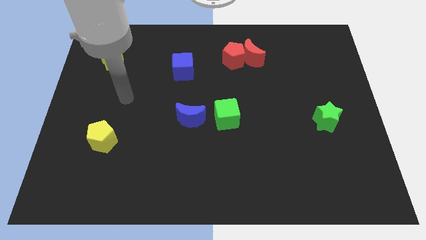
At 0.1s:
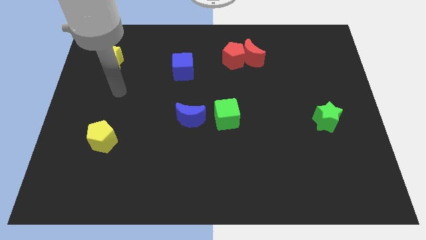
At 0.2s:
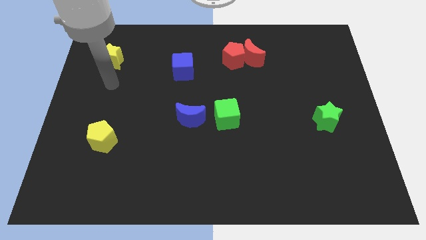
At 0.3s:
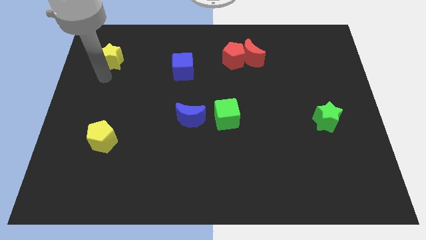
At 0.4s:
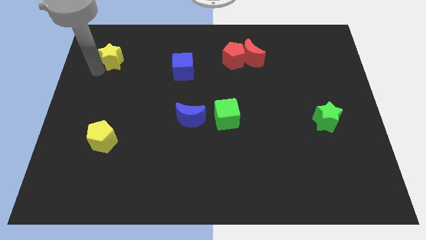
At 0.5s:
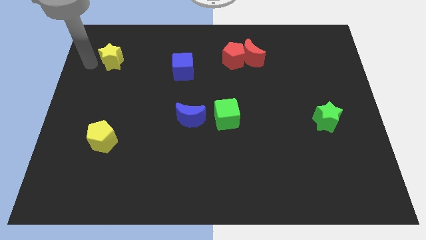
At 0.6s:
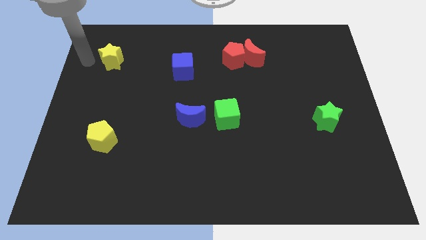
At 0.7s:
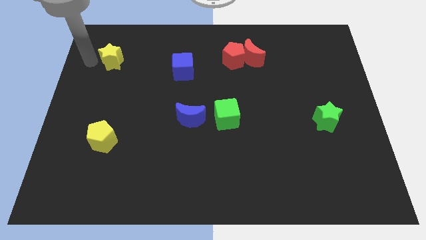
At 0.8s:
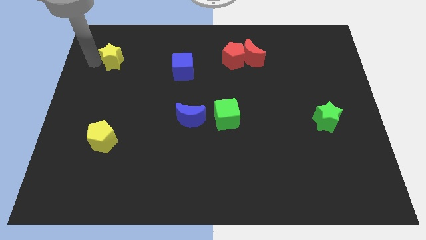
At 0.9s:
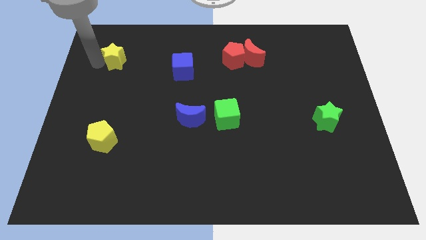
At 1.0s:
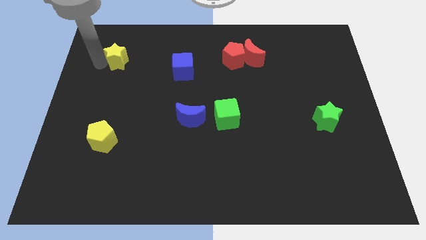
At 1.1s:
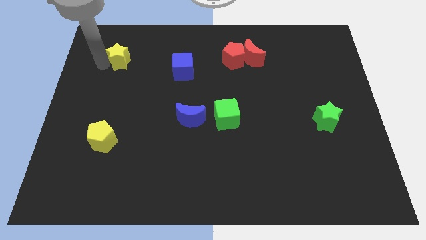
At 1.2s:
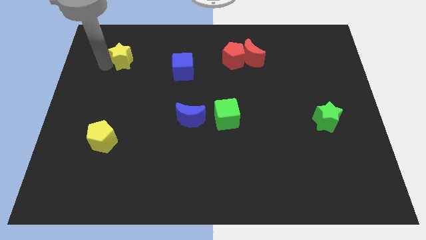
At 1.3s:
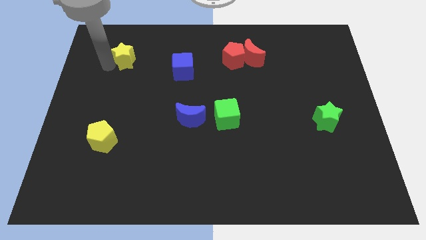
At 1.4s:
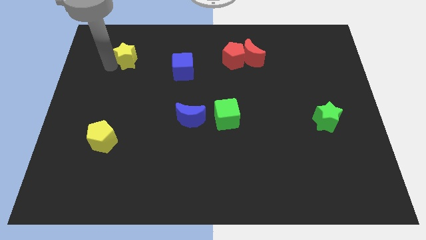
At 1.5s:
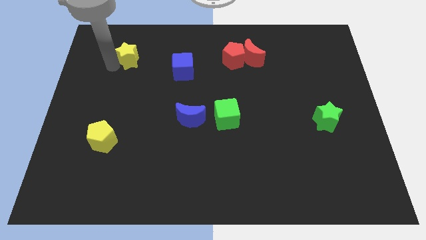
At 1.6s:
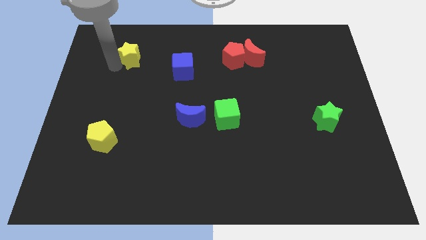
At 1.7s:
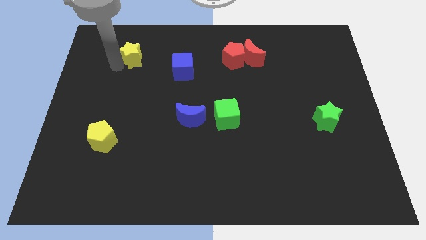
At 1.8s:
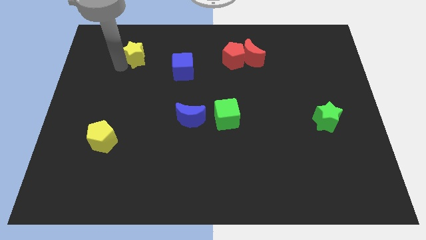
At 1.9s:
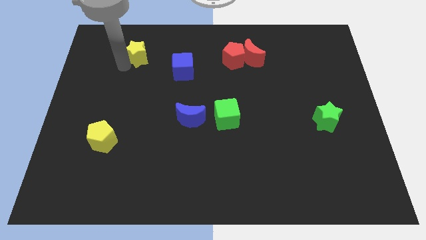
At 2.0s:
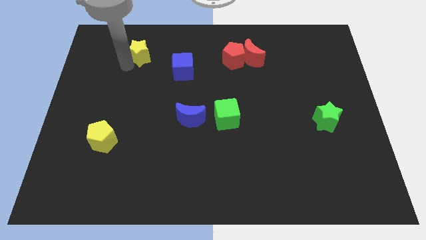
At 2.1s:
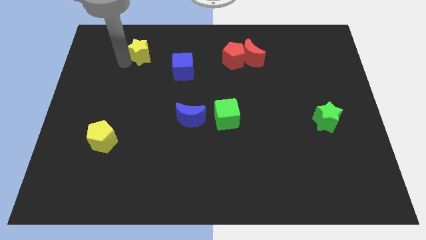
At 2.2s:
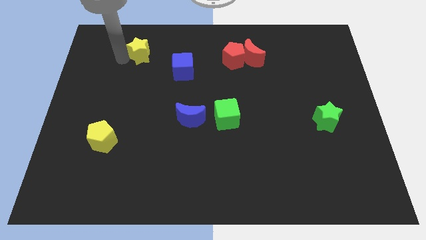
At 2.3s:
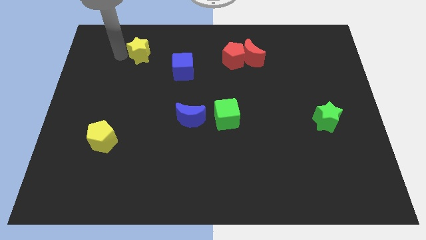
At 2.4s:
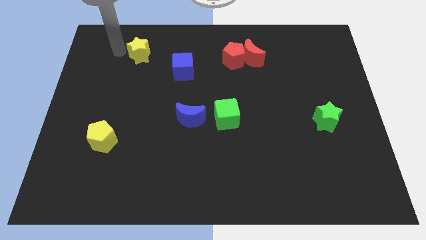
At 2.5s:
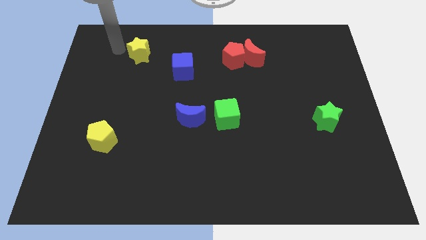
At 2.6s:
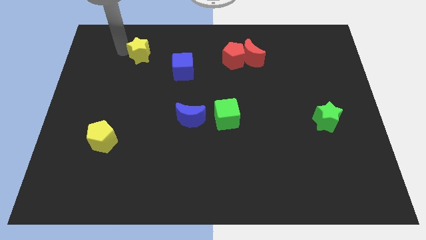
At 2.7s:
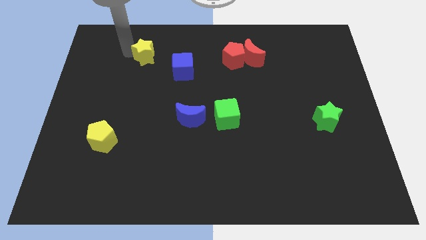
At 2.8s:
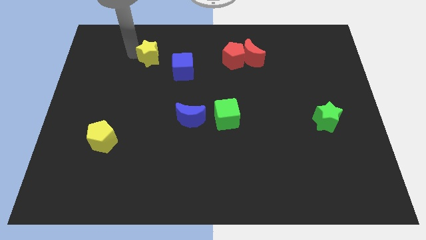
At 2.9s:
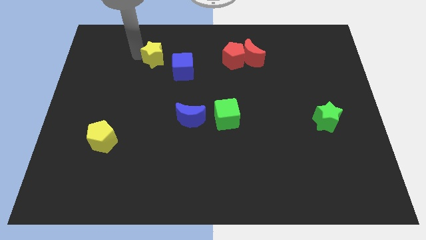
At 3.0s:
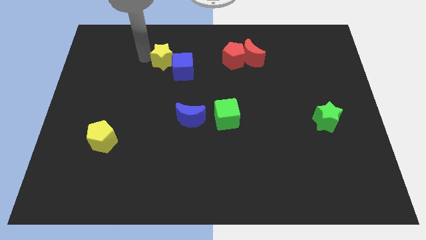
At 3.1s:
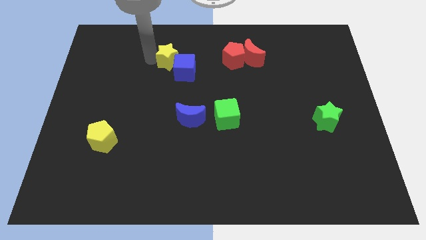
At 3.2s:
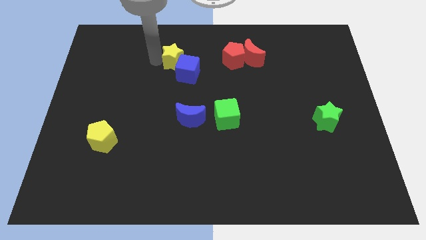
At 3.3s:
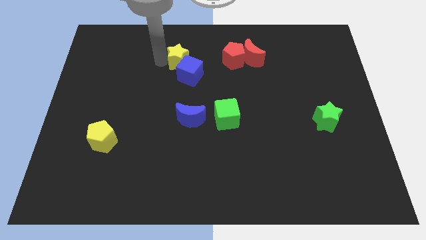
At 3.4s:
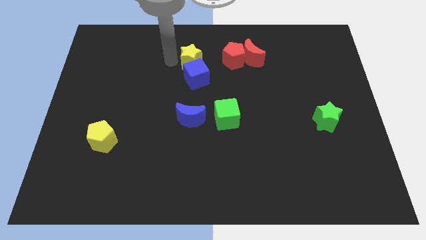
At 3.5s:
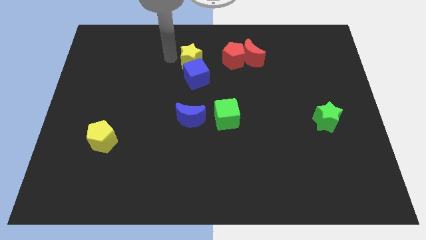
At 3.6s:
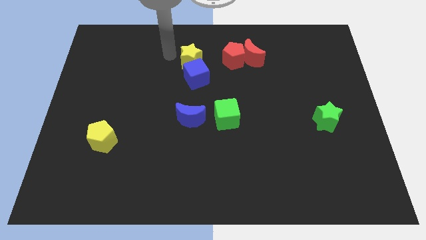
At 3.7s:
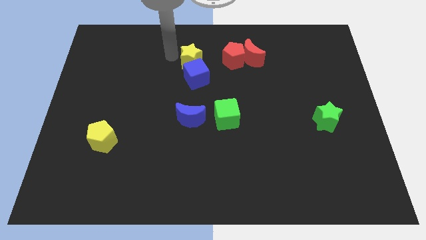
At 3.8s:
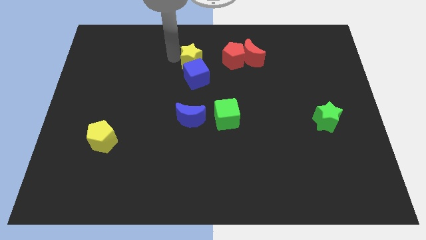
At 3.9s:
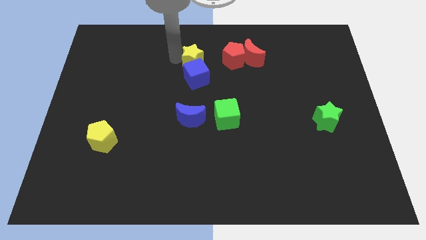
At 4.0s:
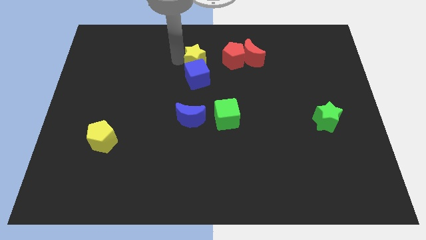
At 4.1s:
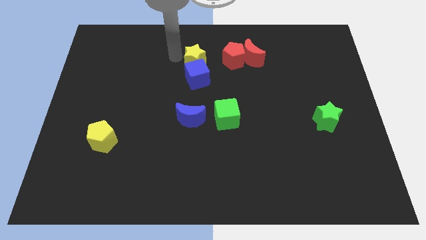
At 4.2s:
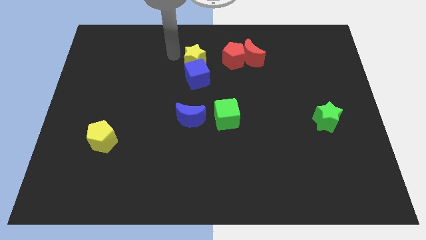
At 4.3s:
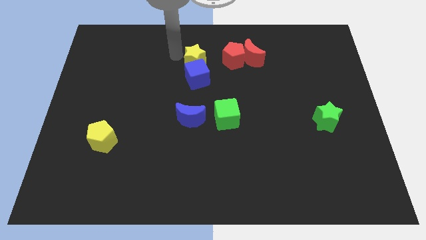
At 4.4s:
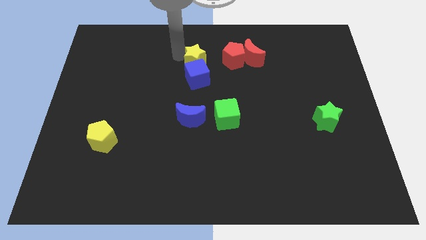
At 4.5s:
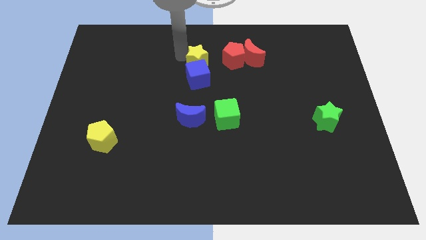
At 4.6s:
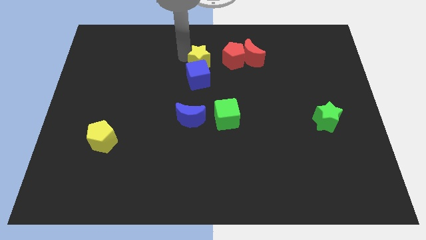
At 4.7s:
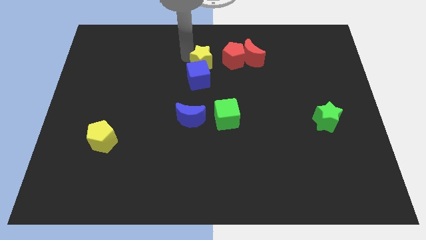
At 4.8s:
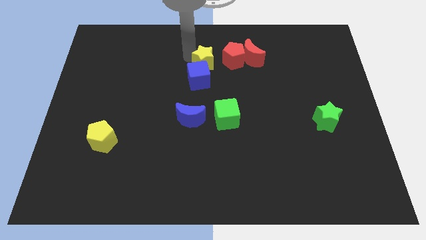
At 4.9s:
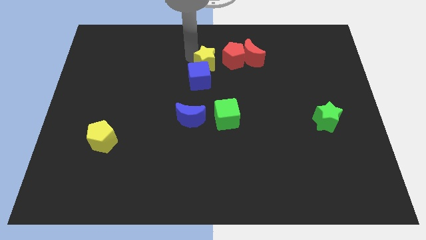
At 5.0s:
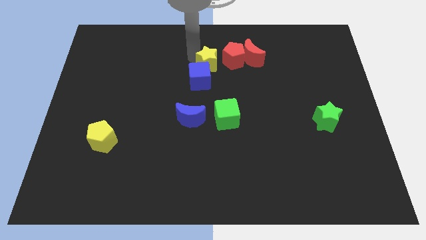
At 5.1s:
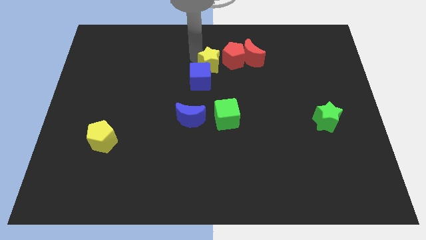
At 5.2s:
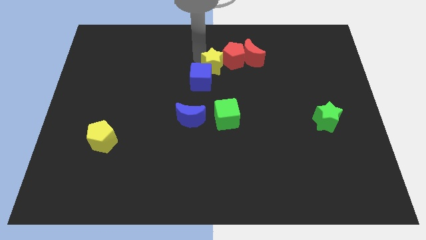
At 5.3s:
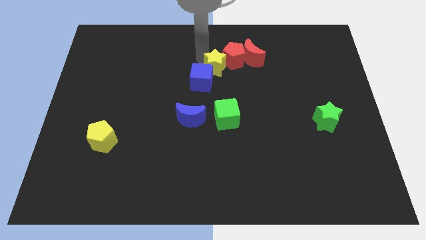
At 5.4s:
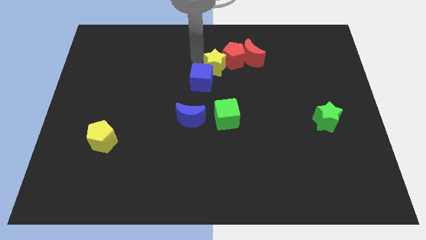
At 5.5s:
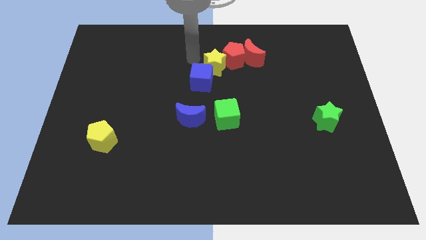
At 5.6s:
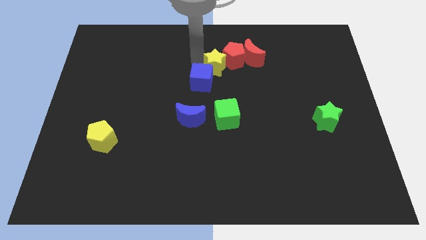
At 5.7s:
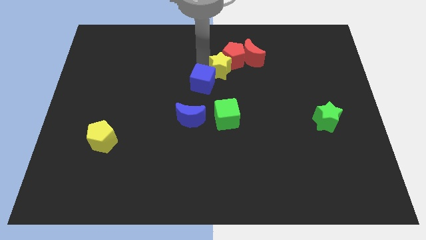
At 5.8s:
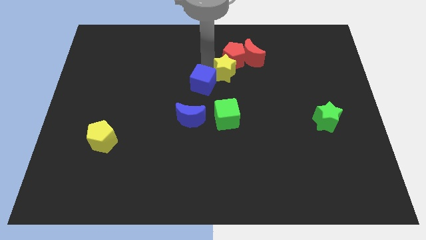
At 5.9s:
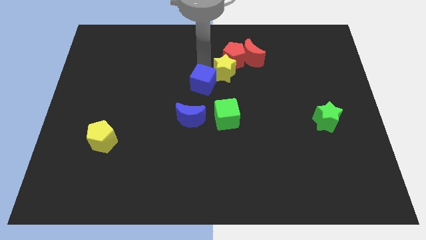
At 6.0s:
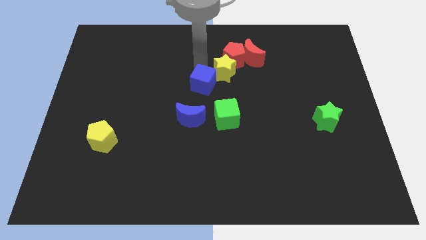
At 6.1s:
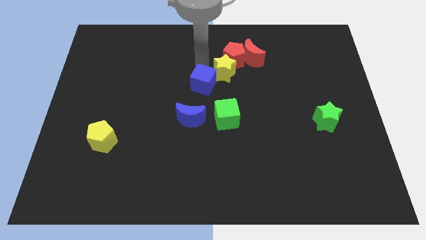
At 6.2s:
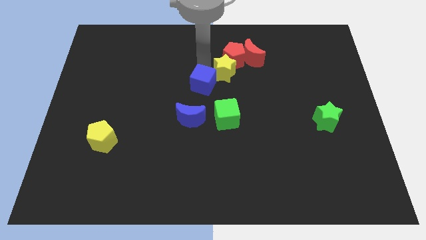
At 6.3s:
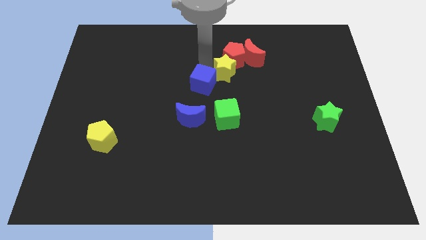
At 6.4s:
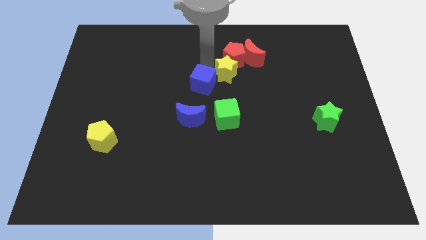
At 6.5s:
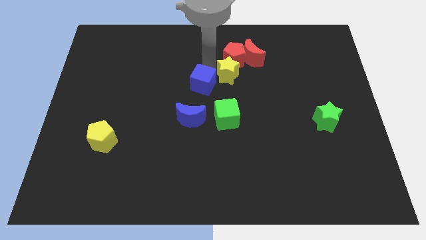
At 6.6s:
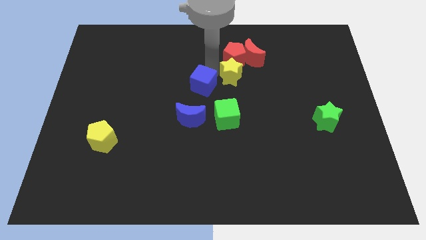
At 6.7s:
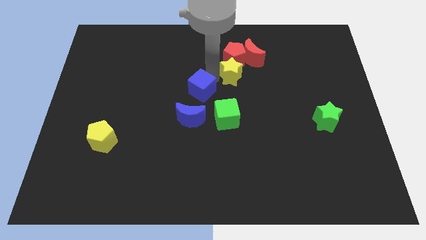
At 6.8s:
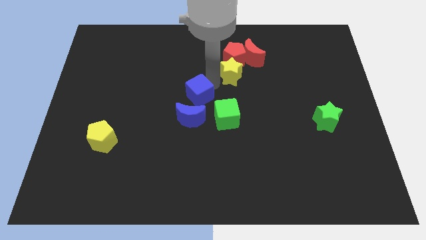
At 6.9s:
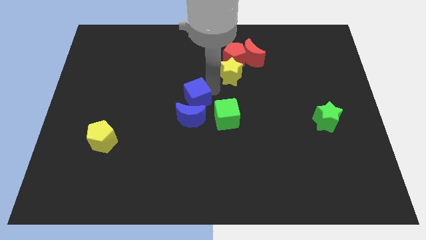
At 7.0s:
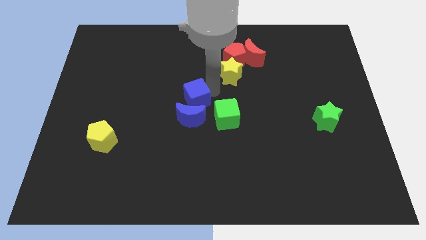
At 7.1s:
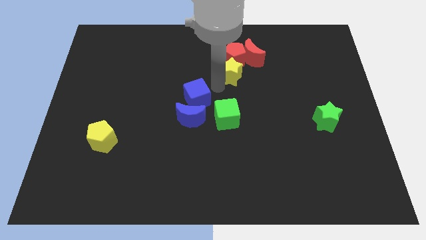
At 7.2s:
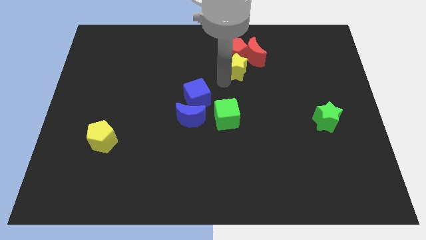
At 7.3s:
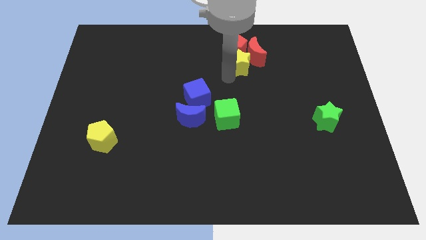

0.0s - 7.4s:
put the yellow star close to the red moon

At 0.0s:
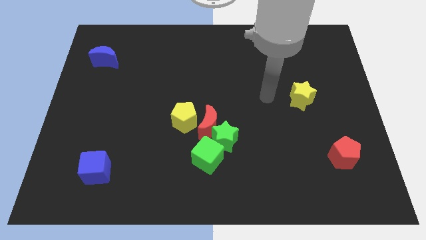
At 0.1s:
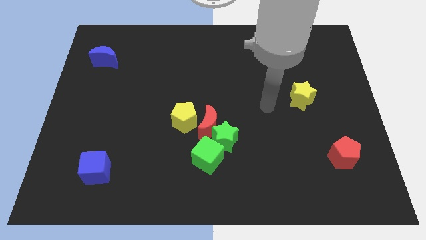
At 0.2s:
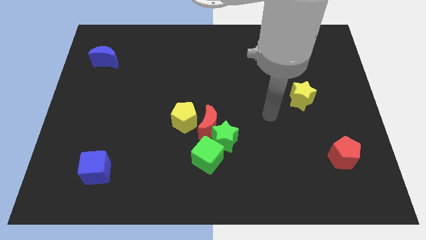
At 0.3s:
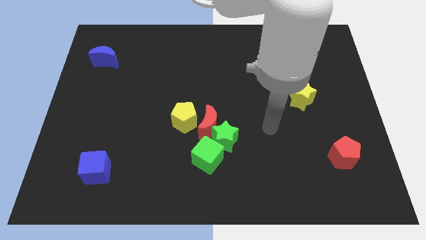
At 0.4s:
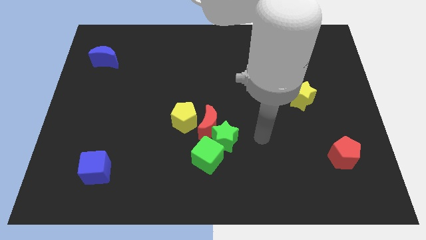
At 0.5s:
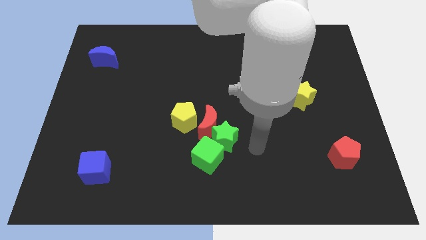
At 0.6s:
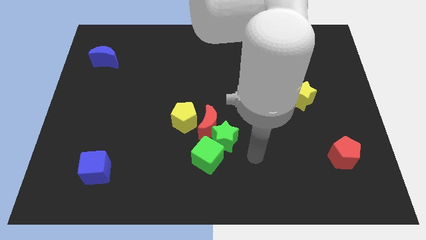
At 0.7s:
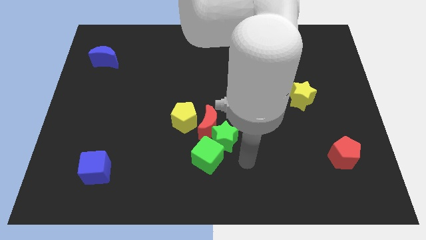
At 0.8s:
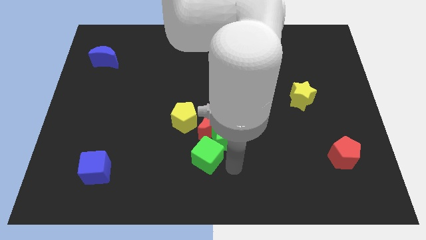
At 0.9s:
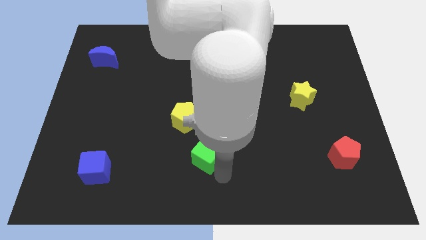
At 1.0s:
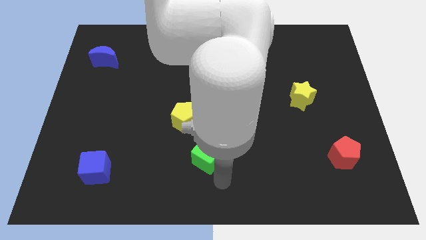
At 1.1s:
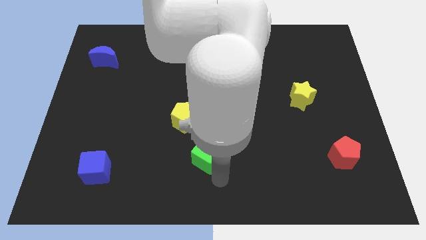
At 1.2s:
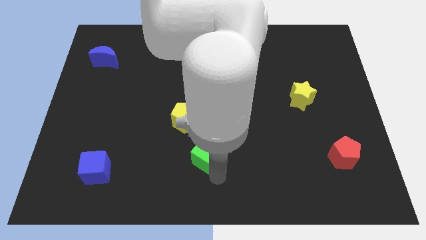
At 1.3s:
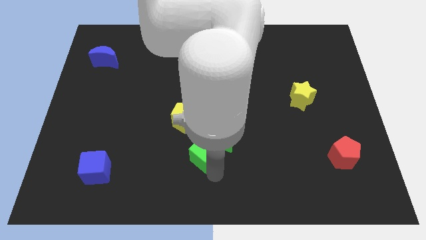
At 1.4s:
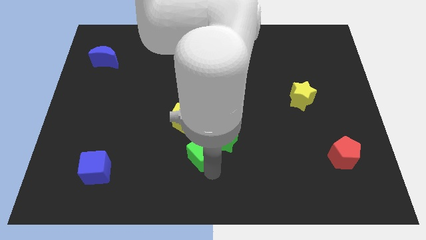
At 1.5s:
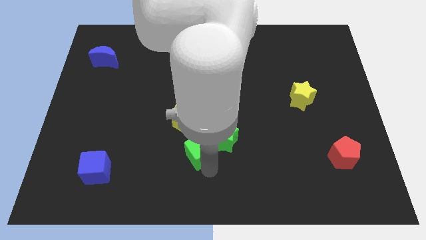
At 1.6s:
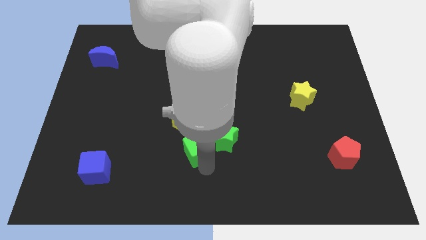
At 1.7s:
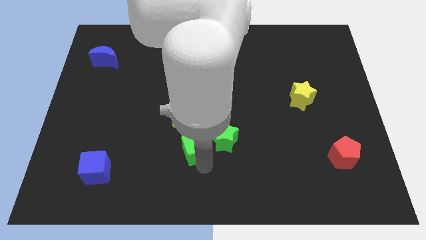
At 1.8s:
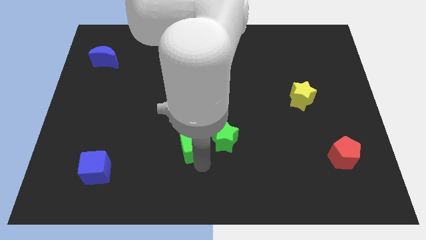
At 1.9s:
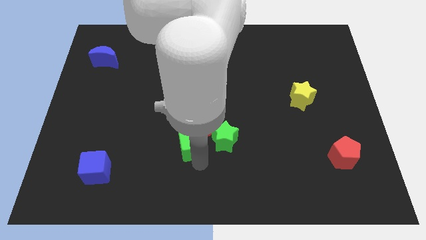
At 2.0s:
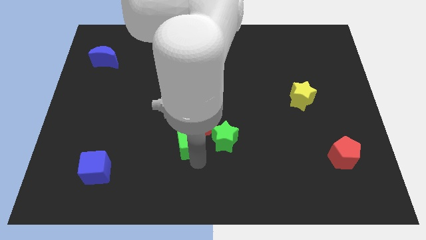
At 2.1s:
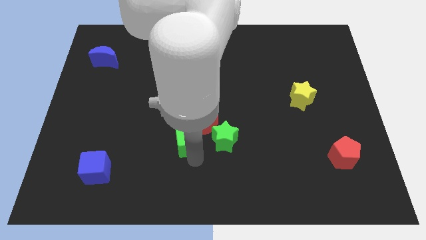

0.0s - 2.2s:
move the green cube to the yellow pentagon
